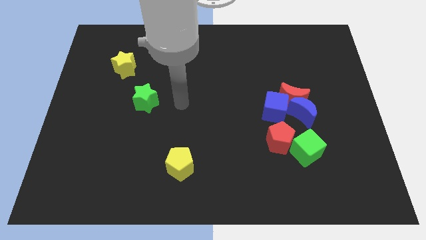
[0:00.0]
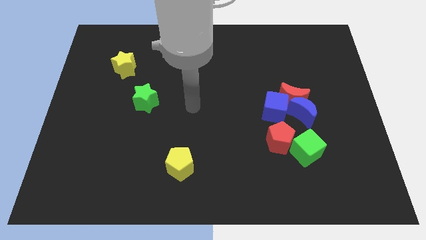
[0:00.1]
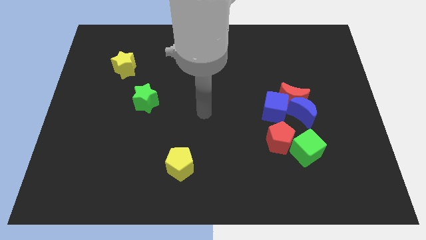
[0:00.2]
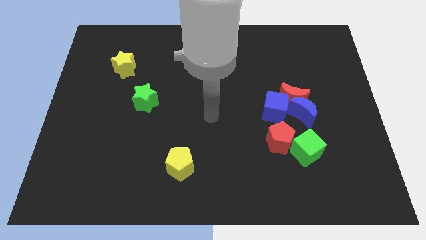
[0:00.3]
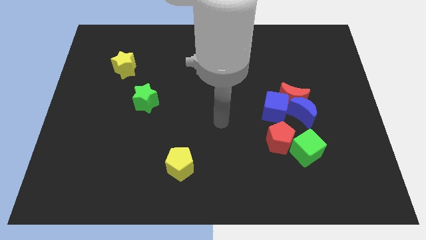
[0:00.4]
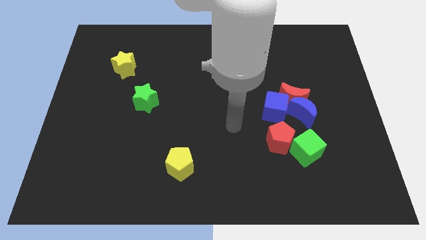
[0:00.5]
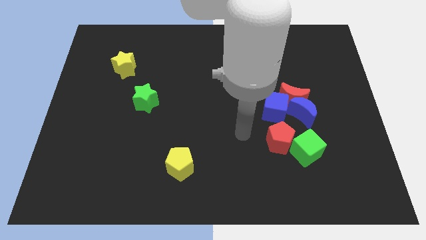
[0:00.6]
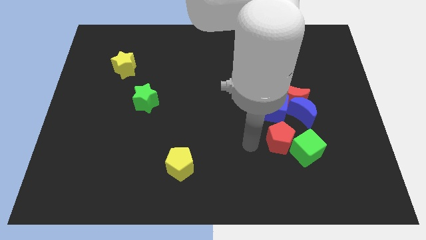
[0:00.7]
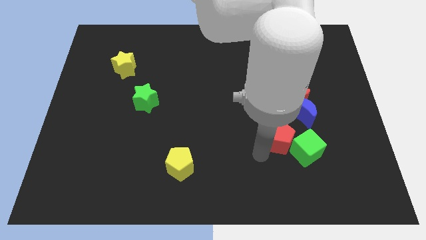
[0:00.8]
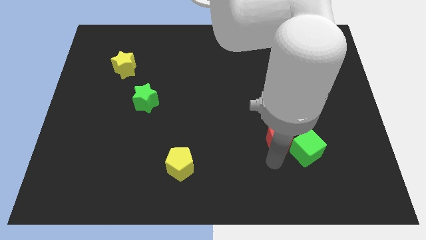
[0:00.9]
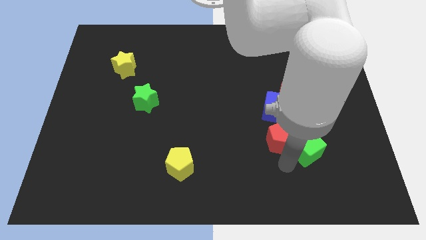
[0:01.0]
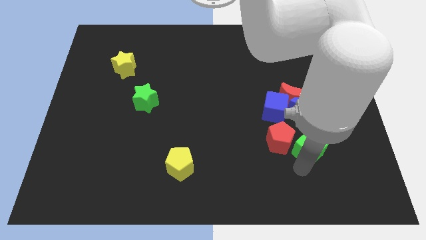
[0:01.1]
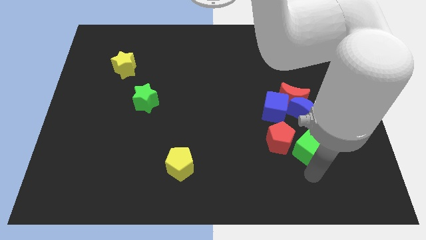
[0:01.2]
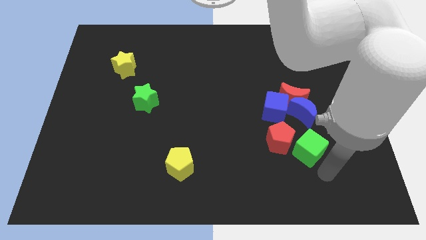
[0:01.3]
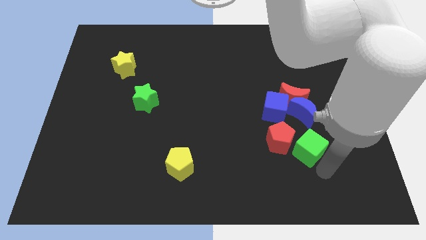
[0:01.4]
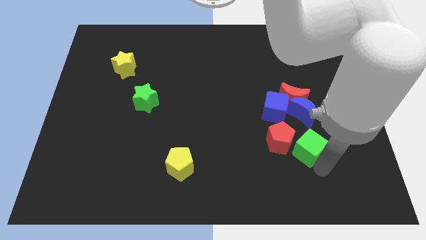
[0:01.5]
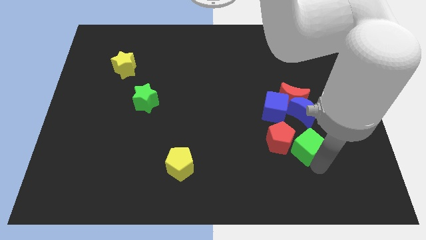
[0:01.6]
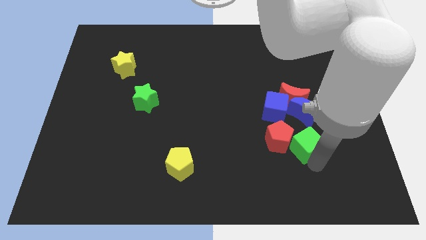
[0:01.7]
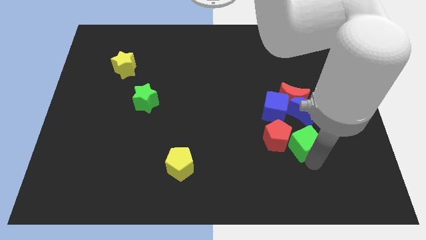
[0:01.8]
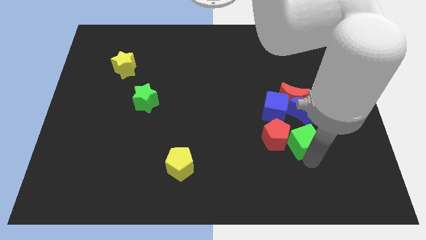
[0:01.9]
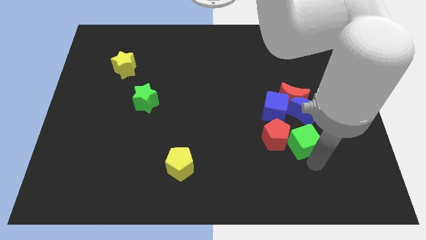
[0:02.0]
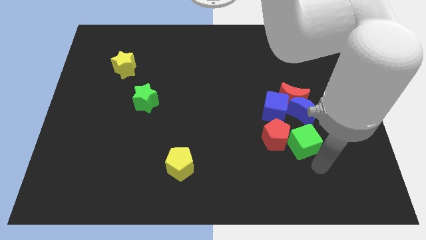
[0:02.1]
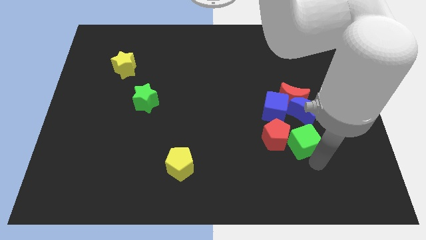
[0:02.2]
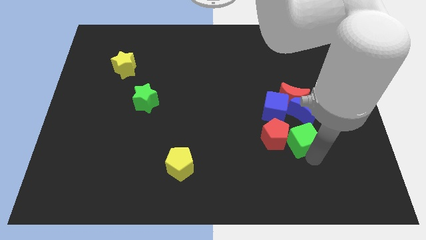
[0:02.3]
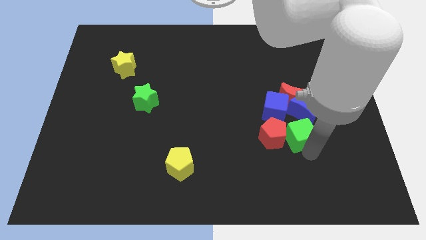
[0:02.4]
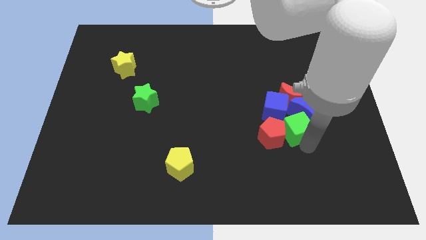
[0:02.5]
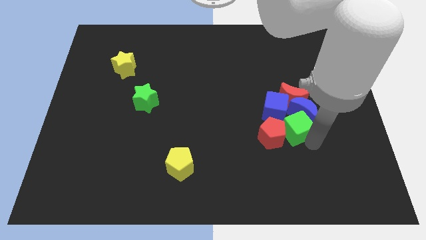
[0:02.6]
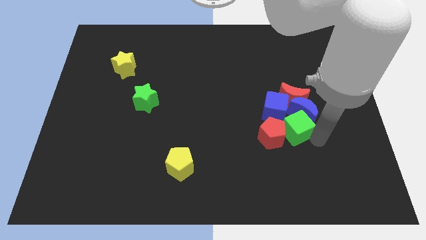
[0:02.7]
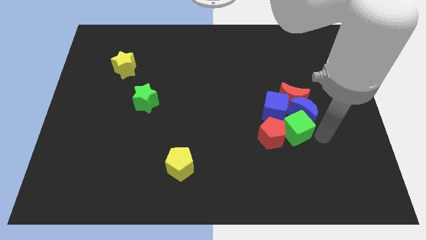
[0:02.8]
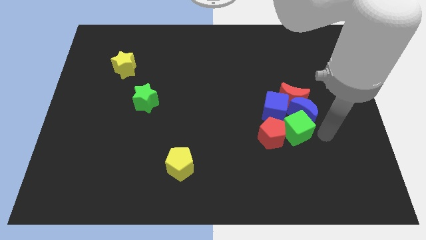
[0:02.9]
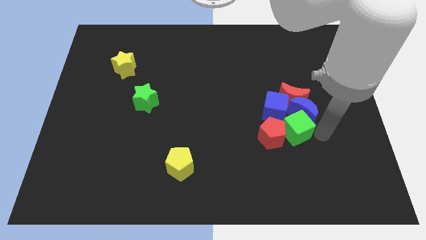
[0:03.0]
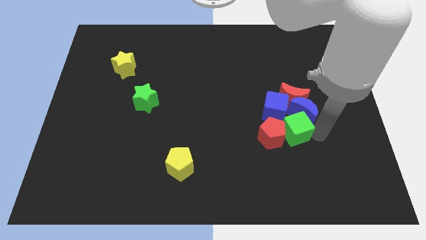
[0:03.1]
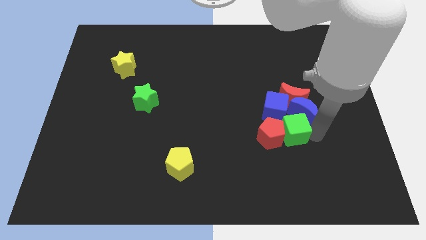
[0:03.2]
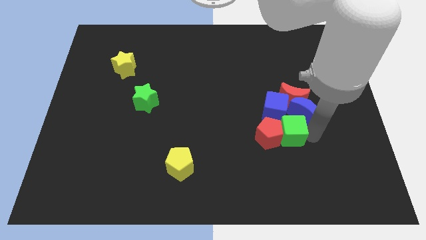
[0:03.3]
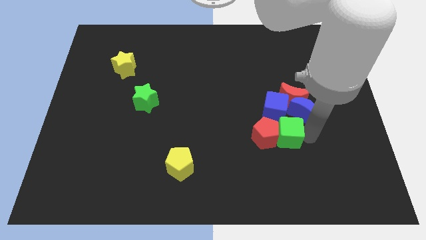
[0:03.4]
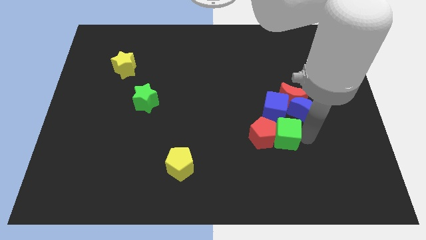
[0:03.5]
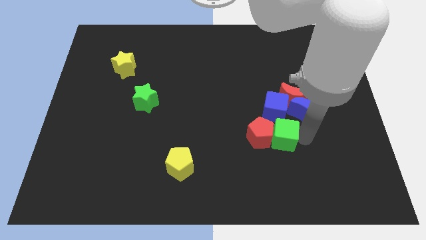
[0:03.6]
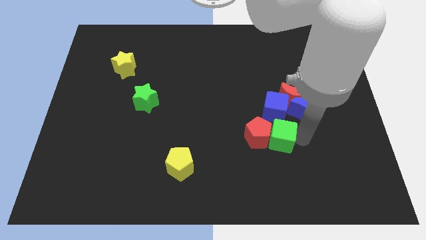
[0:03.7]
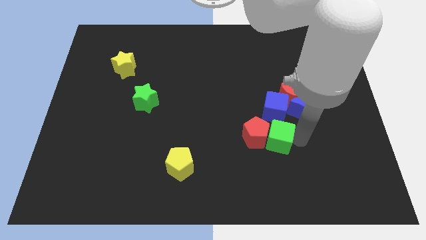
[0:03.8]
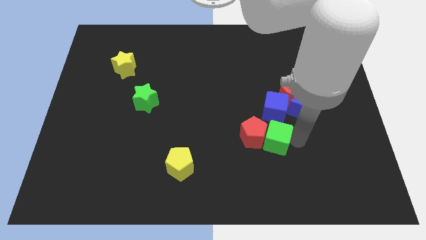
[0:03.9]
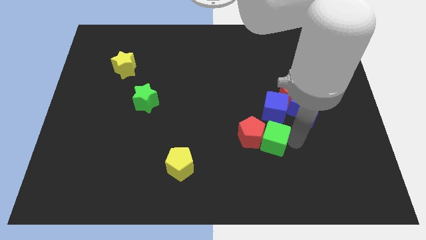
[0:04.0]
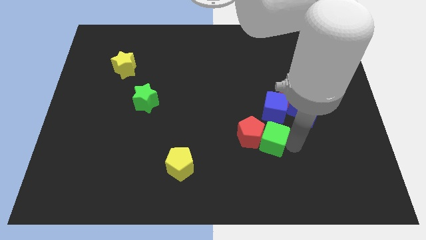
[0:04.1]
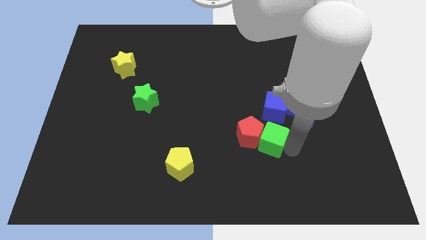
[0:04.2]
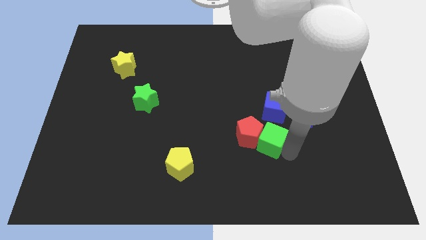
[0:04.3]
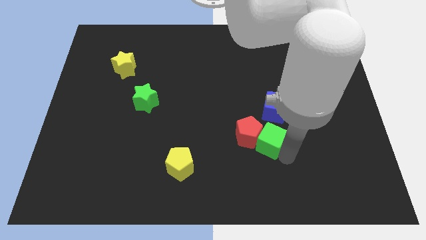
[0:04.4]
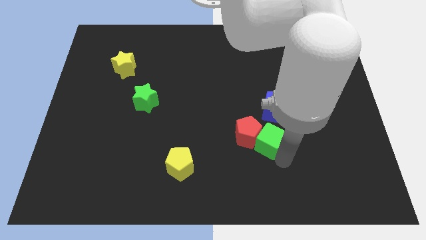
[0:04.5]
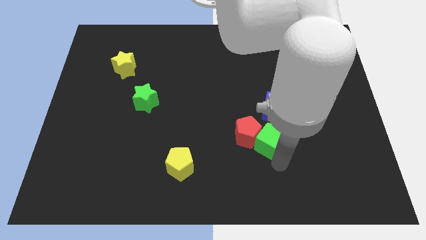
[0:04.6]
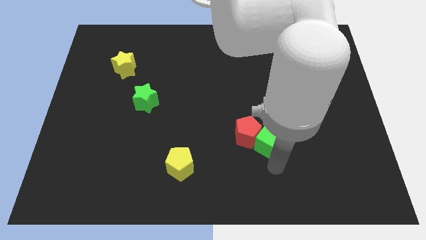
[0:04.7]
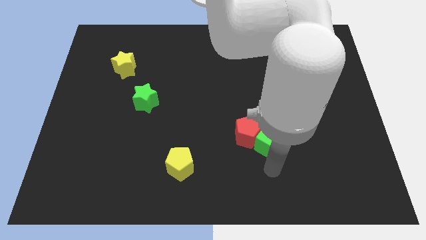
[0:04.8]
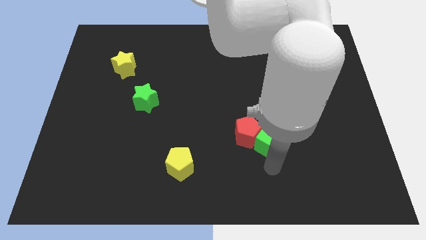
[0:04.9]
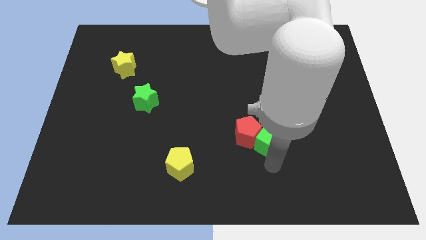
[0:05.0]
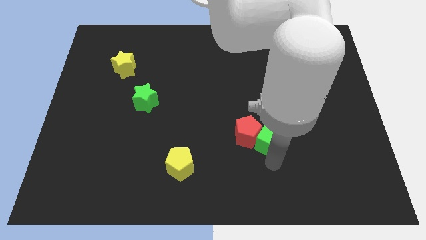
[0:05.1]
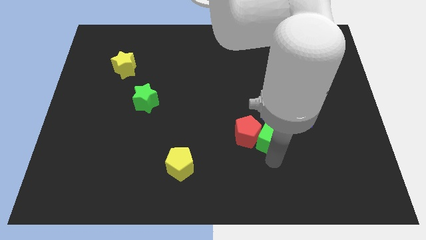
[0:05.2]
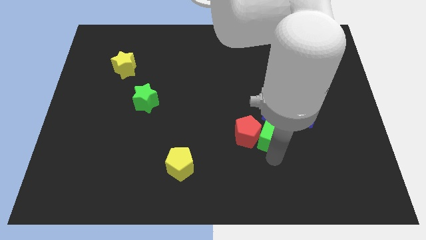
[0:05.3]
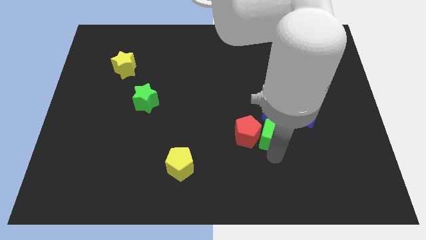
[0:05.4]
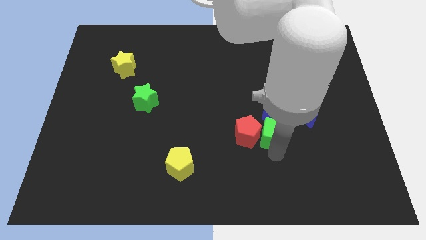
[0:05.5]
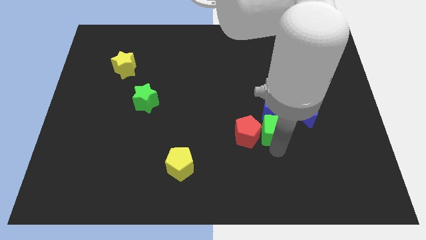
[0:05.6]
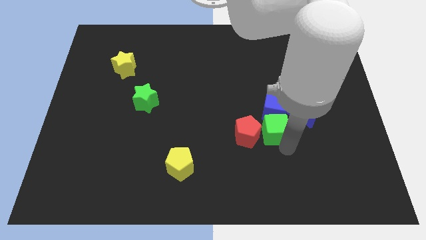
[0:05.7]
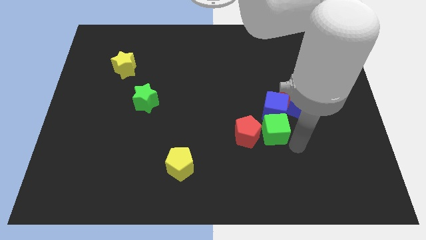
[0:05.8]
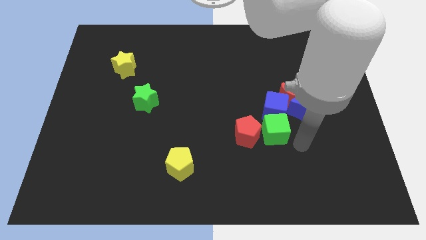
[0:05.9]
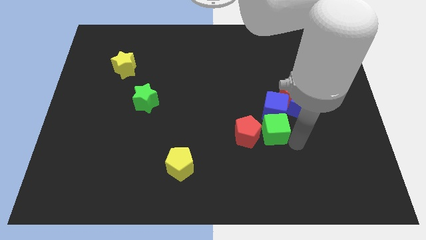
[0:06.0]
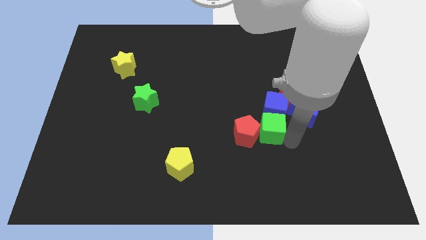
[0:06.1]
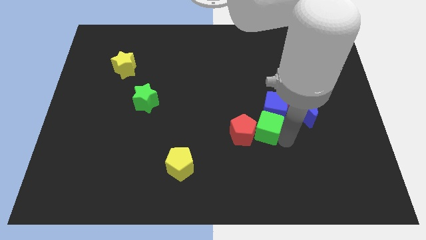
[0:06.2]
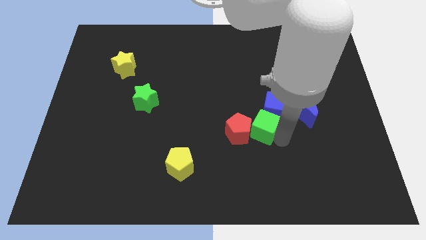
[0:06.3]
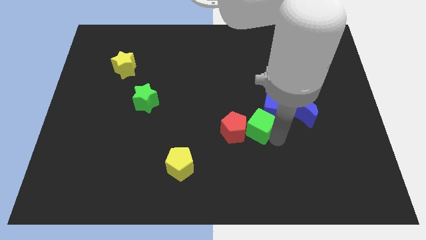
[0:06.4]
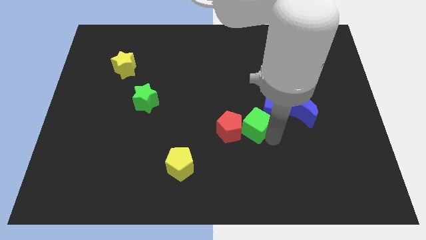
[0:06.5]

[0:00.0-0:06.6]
move the green cube to the left of the blue cube

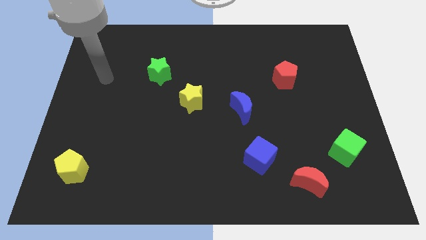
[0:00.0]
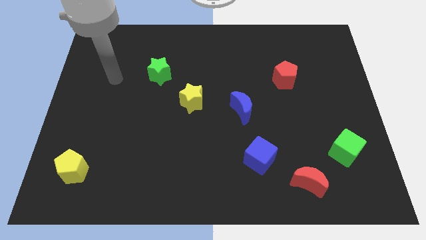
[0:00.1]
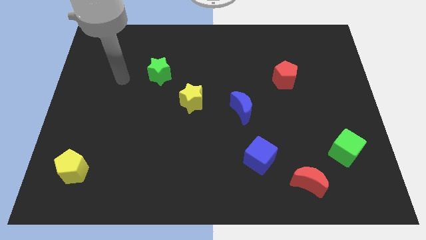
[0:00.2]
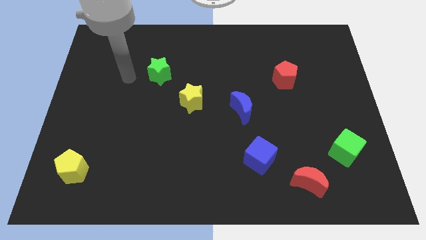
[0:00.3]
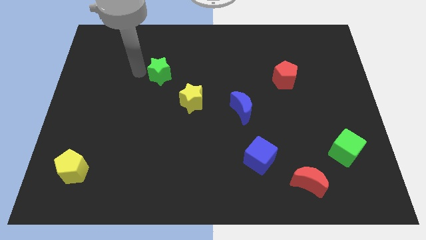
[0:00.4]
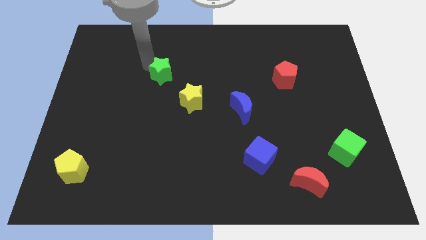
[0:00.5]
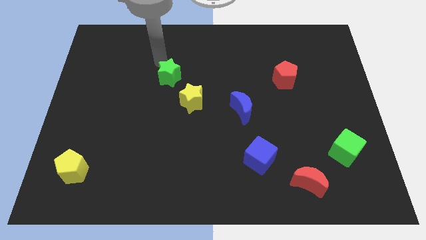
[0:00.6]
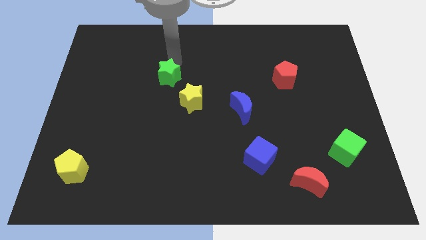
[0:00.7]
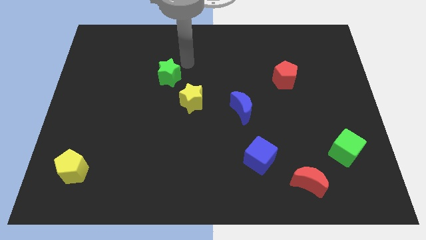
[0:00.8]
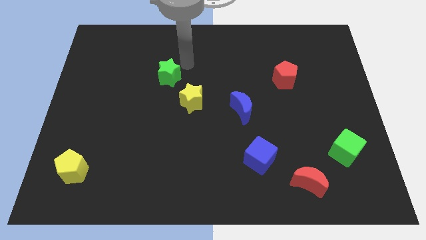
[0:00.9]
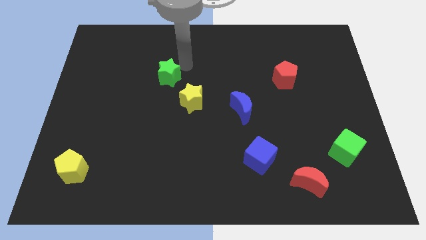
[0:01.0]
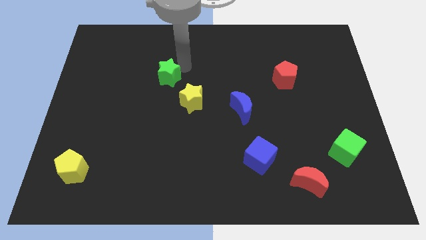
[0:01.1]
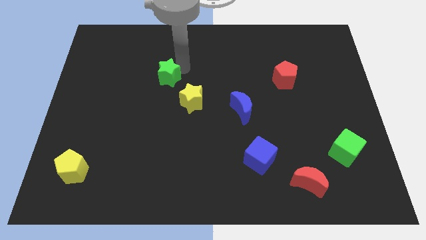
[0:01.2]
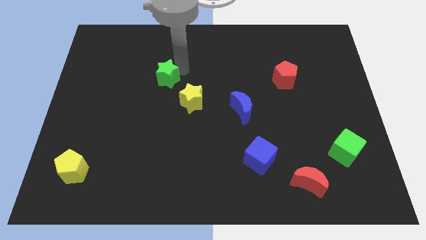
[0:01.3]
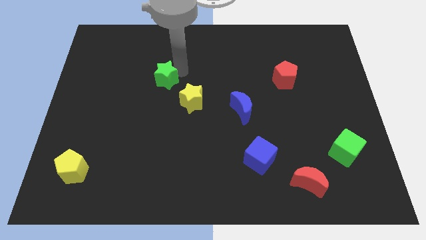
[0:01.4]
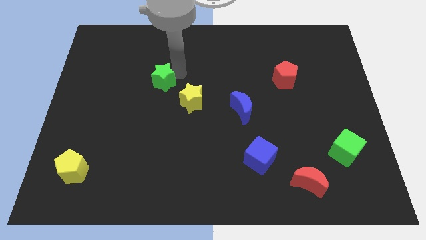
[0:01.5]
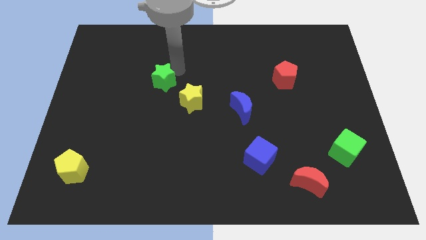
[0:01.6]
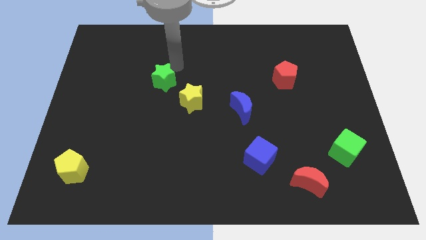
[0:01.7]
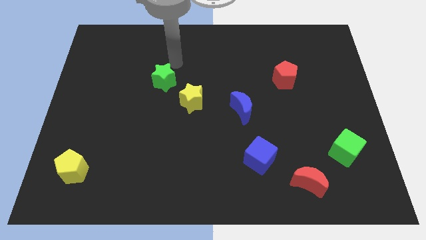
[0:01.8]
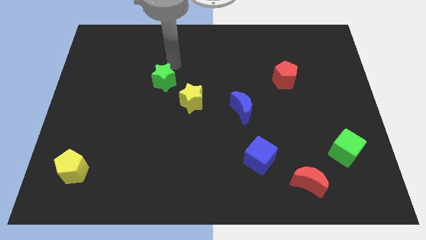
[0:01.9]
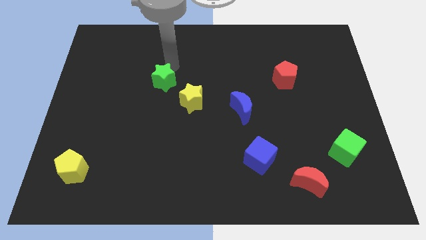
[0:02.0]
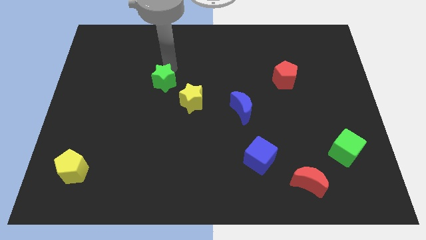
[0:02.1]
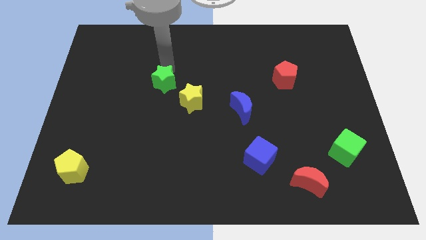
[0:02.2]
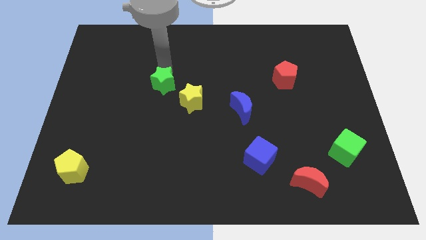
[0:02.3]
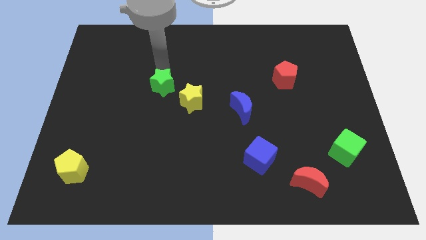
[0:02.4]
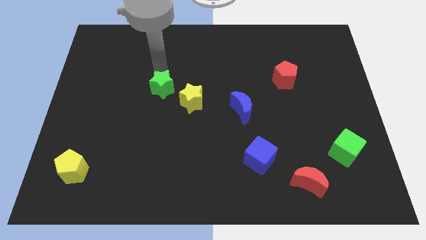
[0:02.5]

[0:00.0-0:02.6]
slide the green star to the left side of the yellow star
